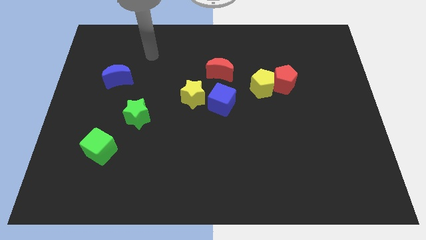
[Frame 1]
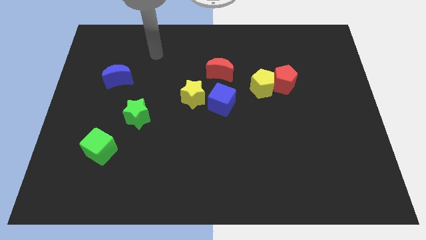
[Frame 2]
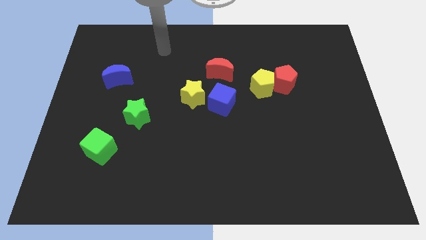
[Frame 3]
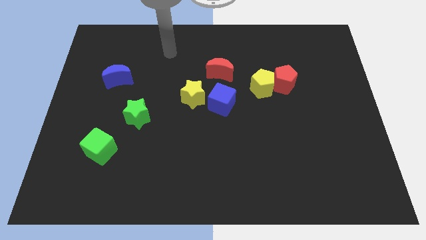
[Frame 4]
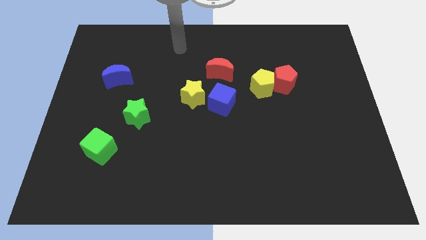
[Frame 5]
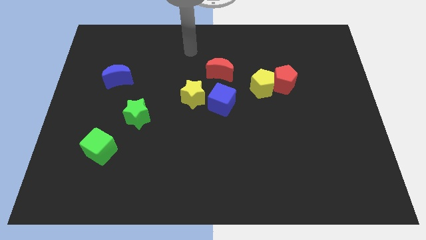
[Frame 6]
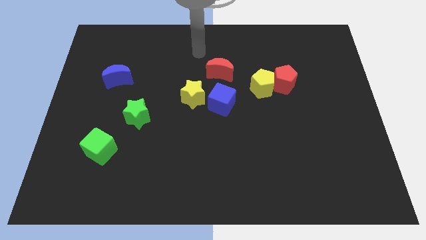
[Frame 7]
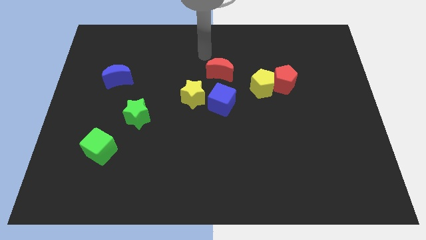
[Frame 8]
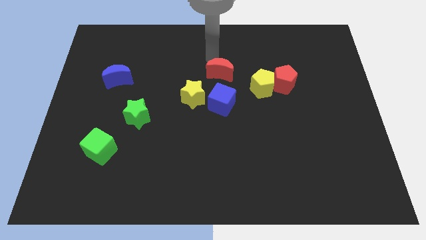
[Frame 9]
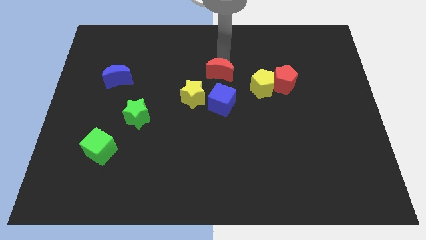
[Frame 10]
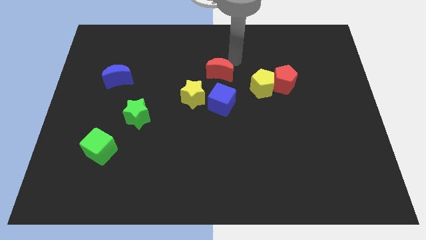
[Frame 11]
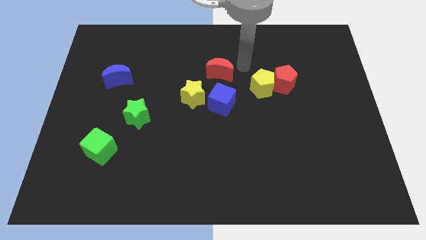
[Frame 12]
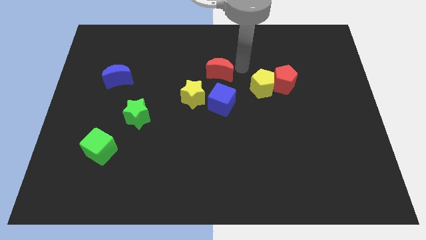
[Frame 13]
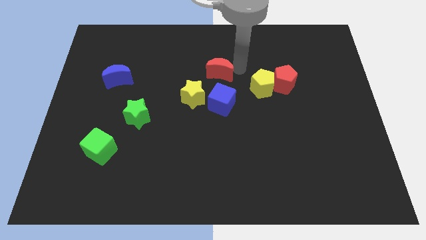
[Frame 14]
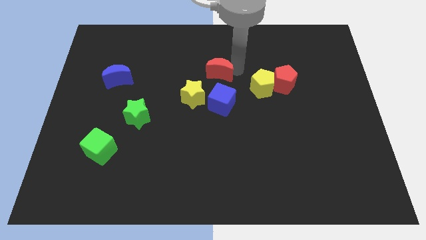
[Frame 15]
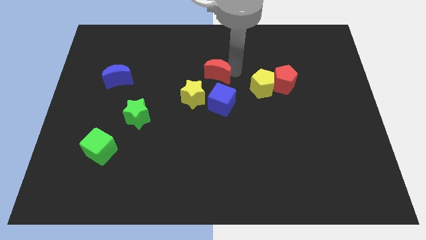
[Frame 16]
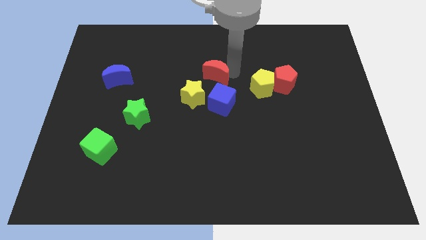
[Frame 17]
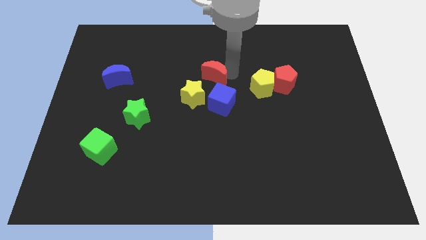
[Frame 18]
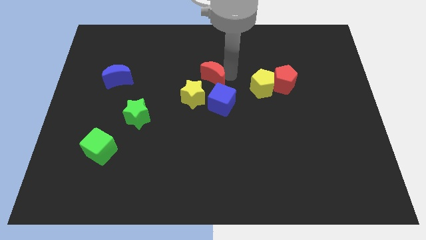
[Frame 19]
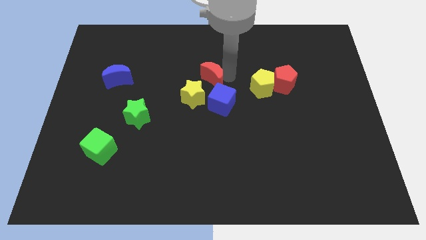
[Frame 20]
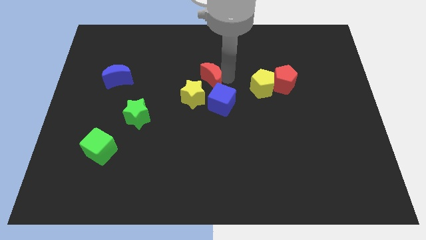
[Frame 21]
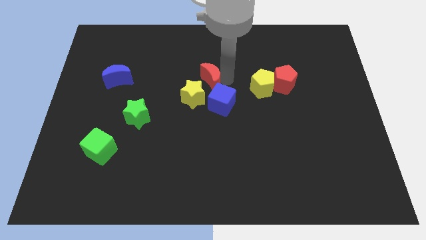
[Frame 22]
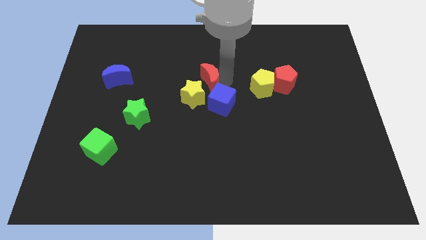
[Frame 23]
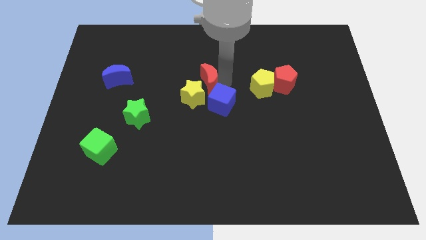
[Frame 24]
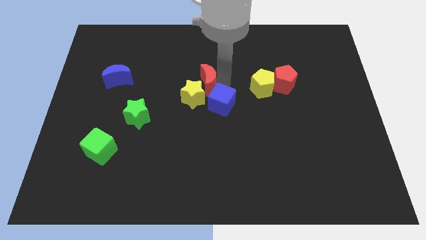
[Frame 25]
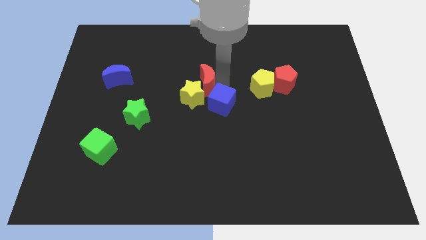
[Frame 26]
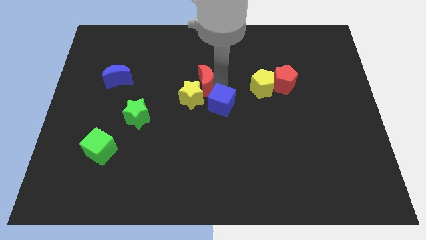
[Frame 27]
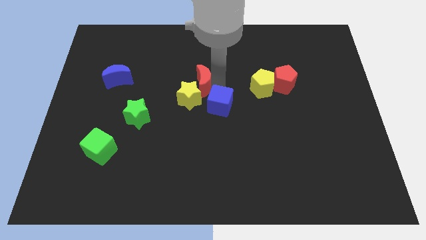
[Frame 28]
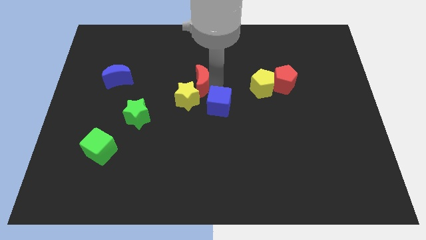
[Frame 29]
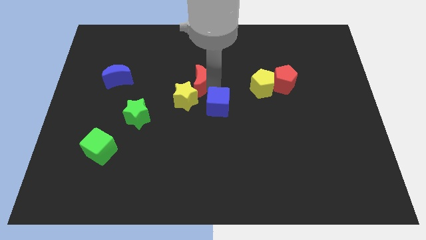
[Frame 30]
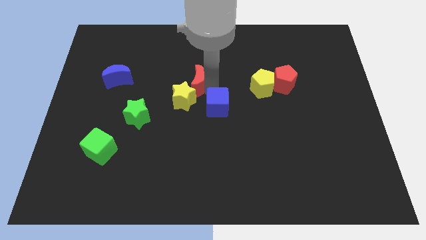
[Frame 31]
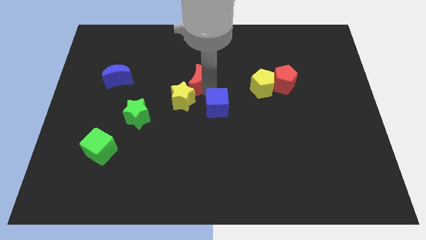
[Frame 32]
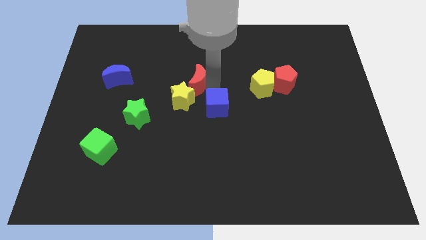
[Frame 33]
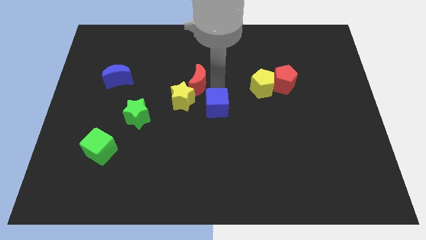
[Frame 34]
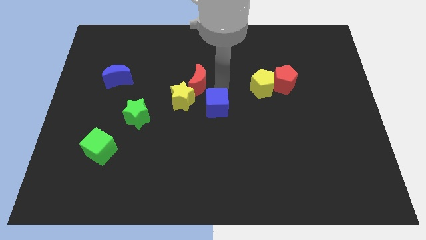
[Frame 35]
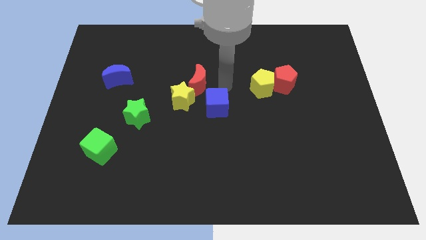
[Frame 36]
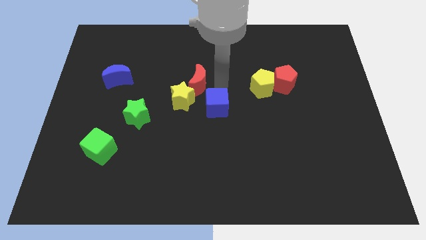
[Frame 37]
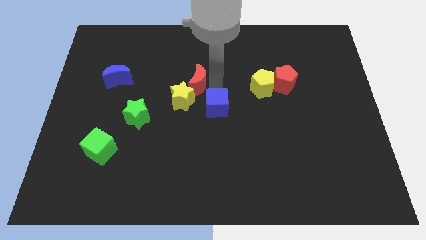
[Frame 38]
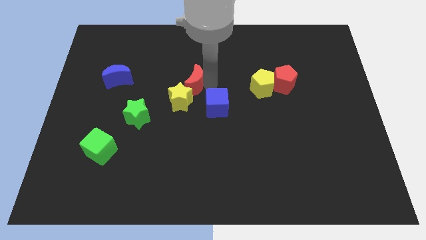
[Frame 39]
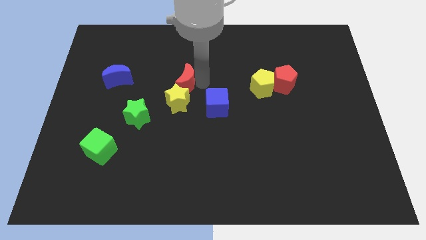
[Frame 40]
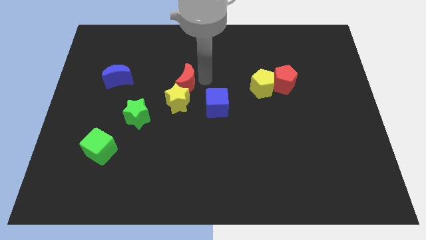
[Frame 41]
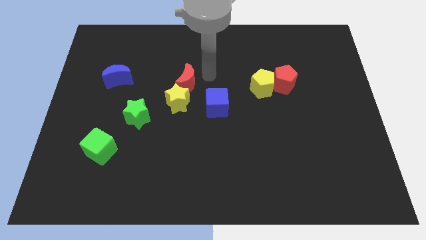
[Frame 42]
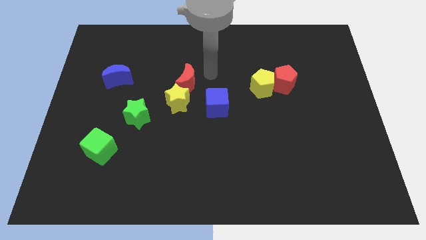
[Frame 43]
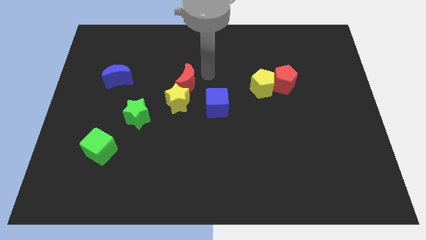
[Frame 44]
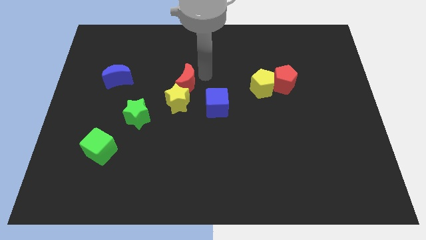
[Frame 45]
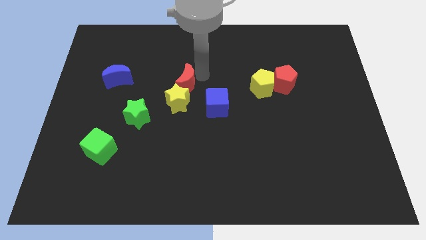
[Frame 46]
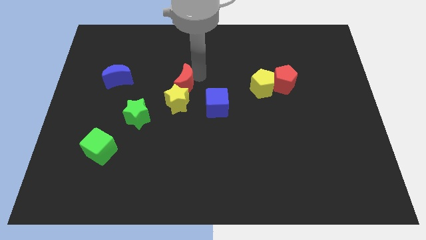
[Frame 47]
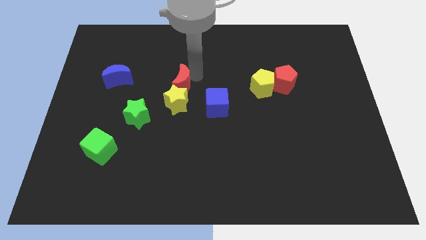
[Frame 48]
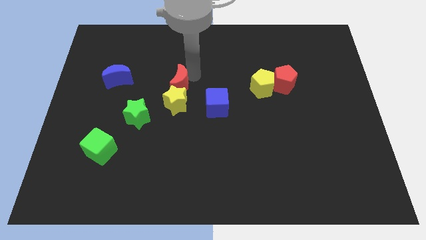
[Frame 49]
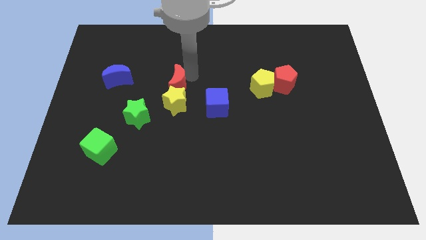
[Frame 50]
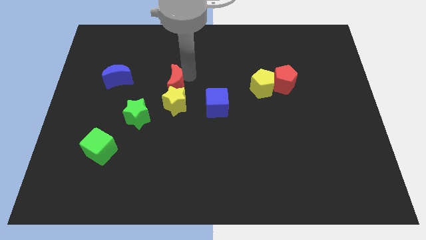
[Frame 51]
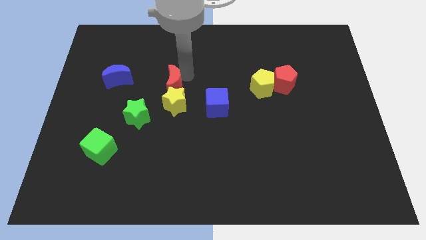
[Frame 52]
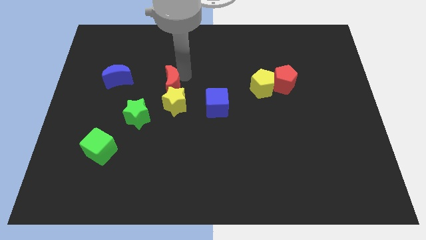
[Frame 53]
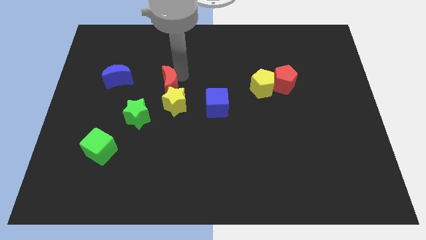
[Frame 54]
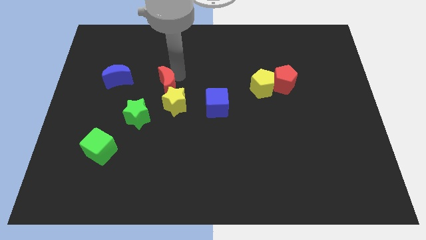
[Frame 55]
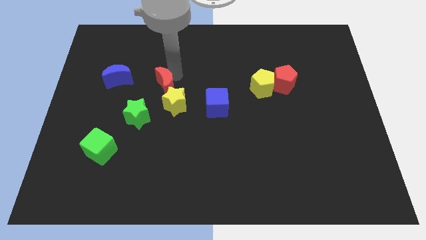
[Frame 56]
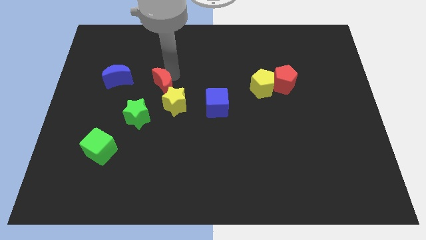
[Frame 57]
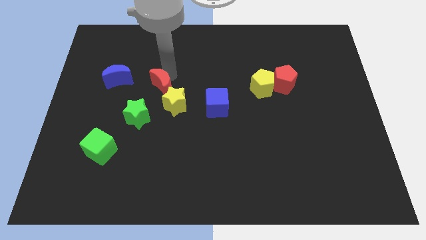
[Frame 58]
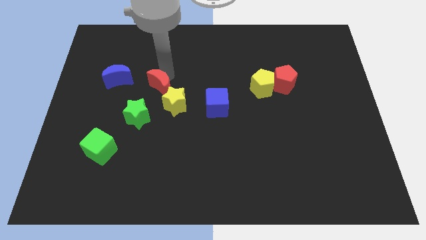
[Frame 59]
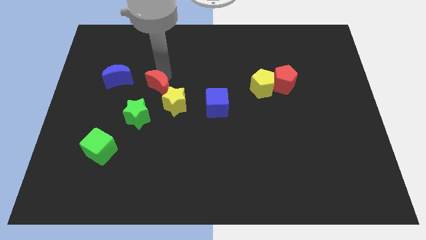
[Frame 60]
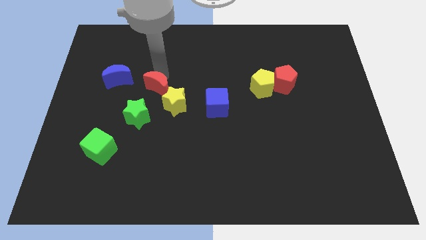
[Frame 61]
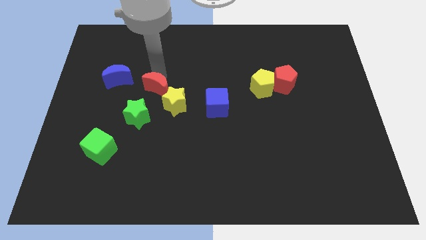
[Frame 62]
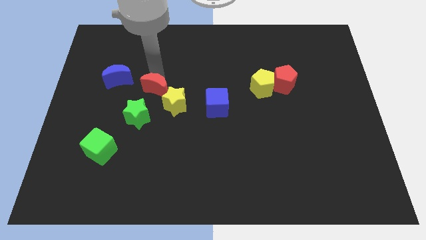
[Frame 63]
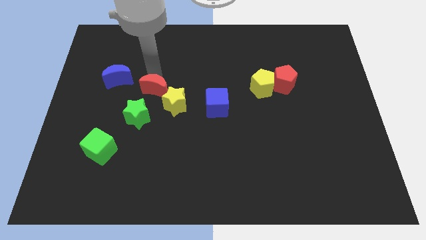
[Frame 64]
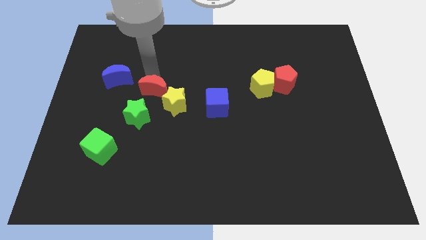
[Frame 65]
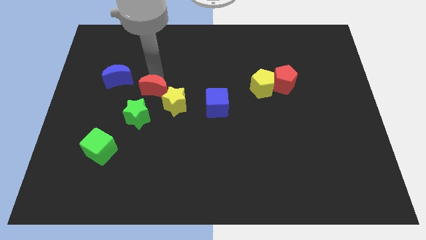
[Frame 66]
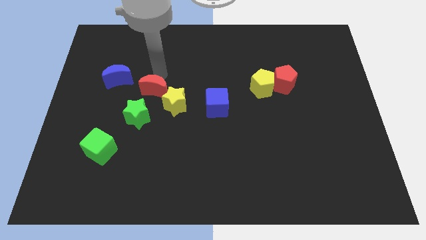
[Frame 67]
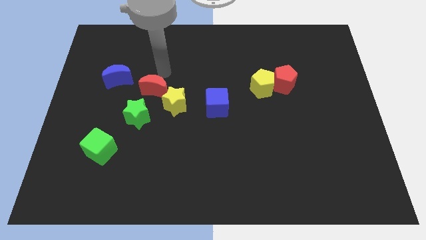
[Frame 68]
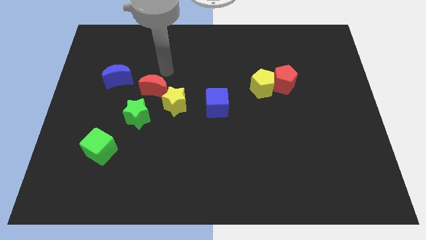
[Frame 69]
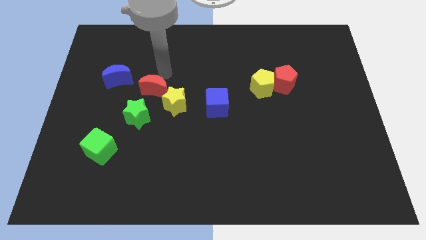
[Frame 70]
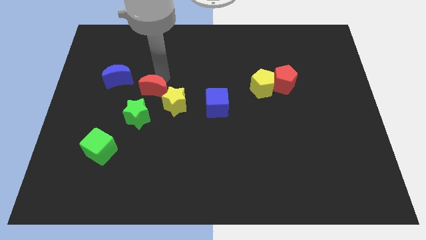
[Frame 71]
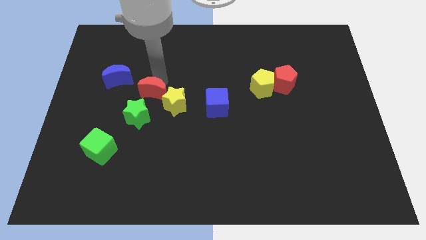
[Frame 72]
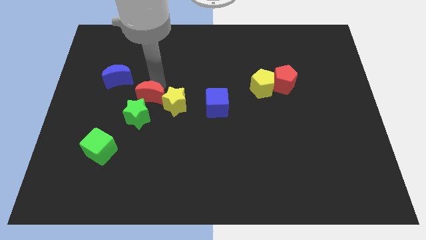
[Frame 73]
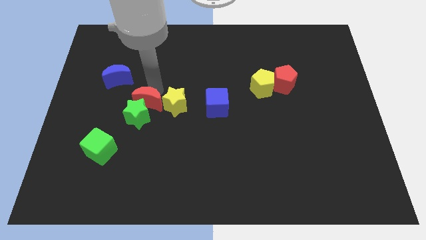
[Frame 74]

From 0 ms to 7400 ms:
move the red moon close to the green star
